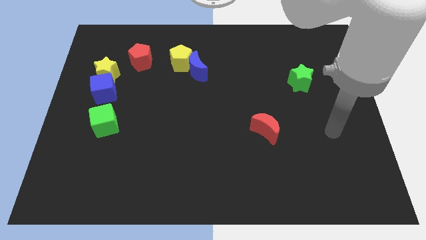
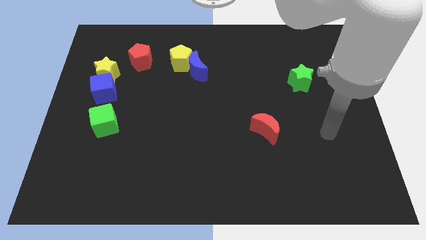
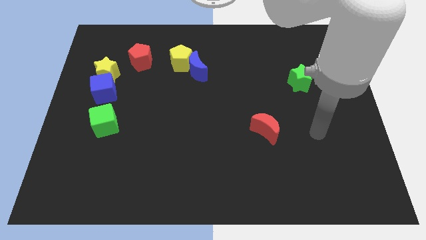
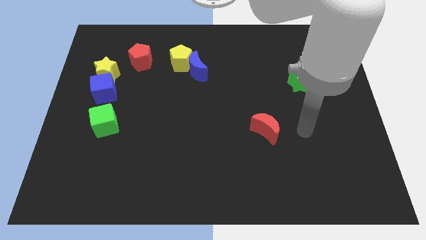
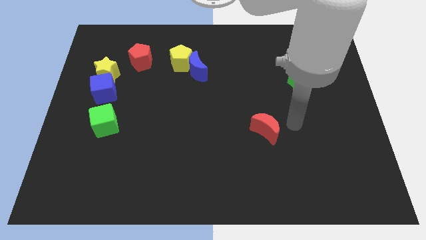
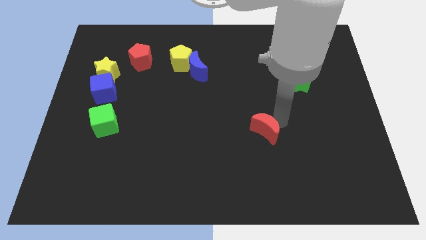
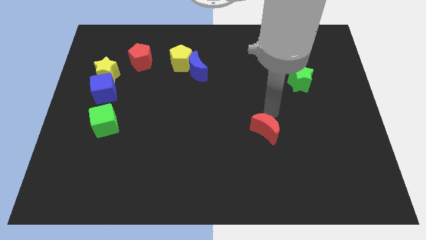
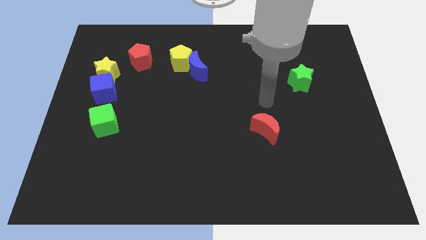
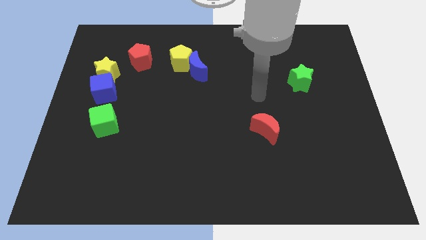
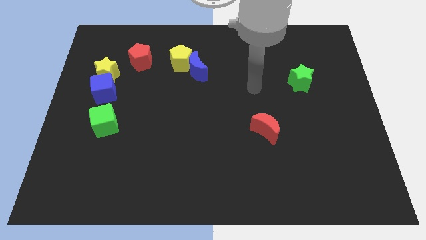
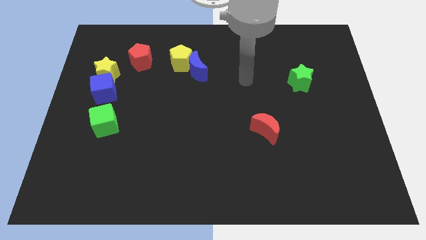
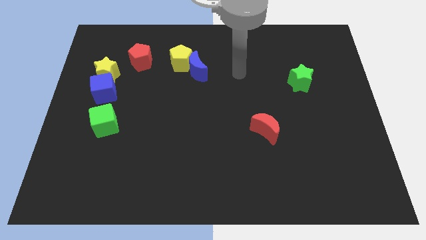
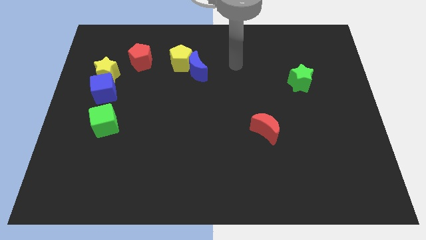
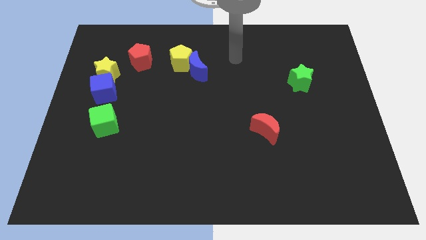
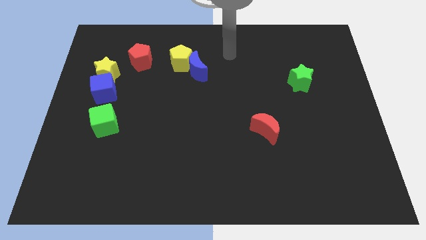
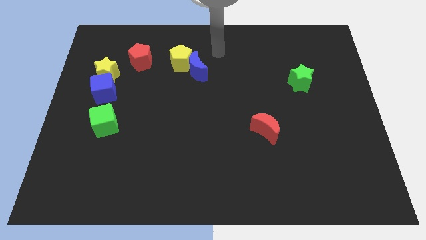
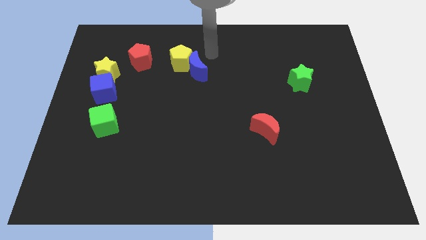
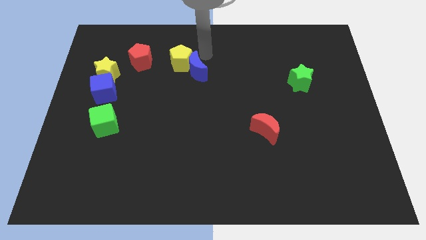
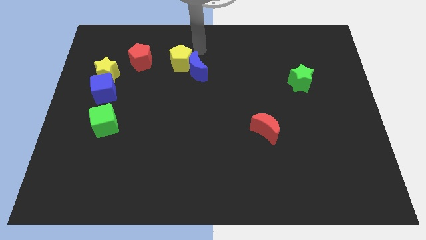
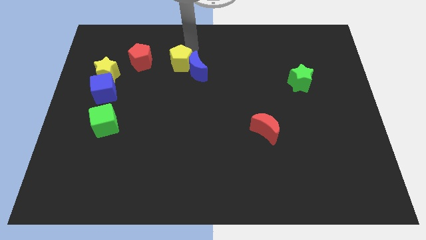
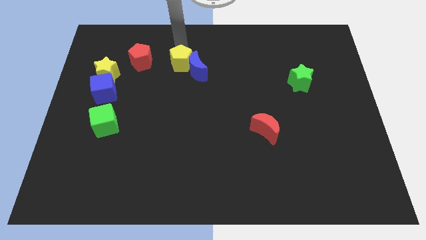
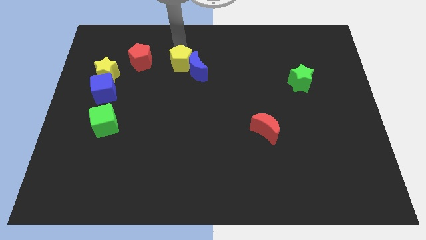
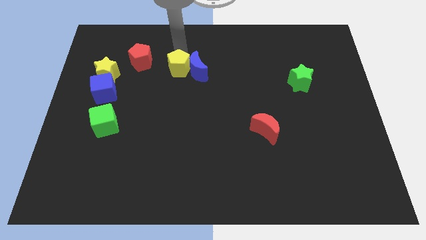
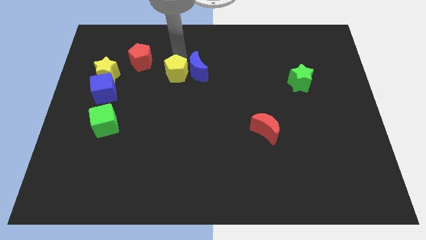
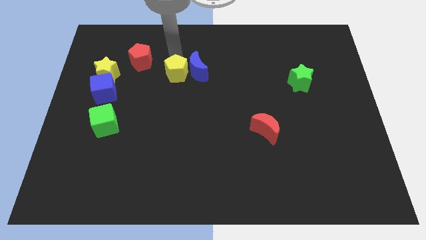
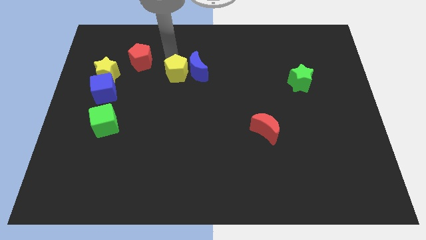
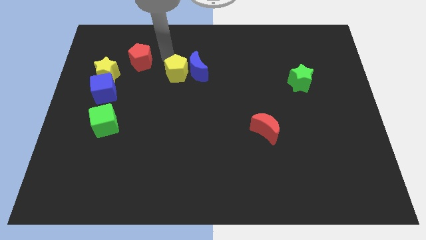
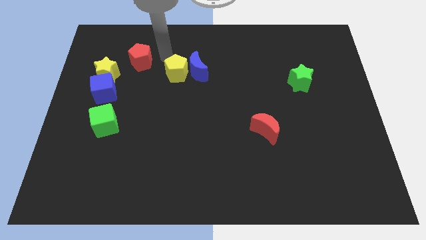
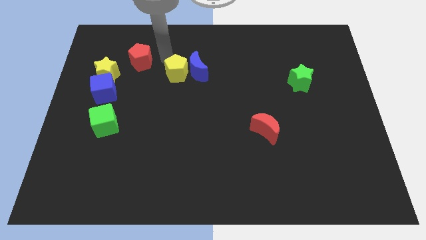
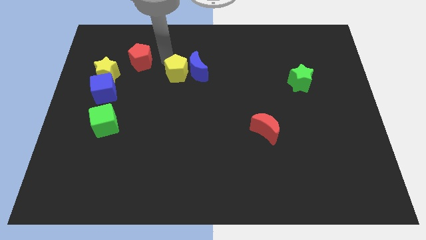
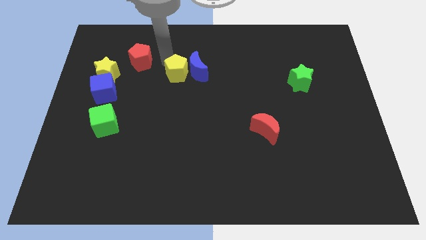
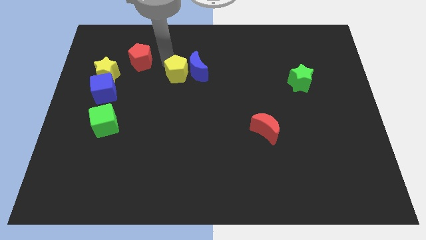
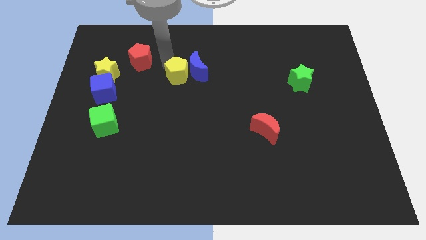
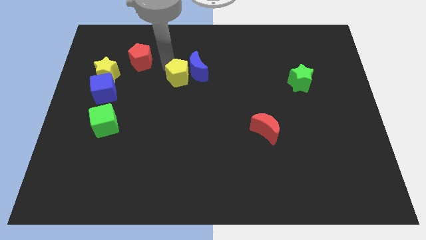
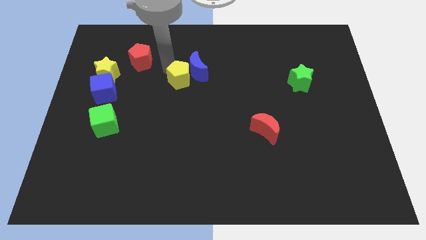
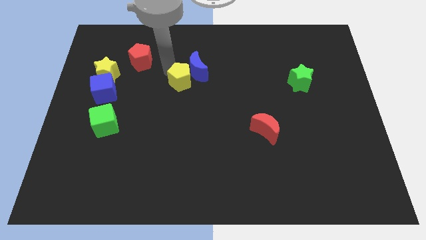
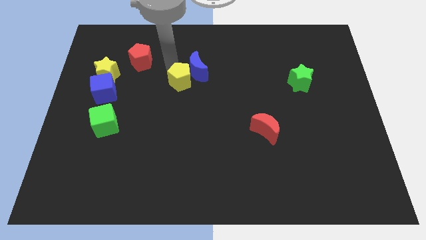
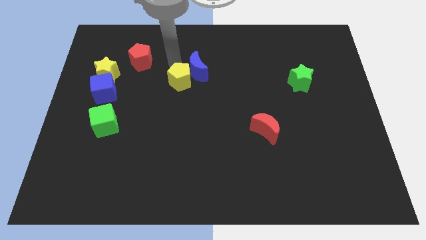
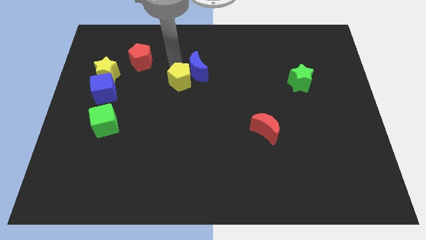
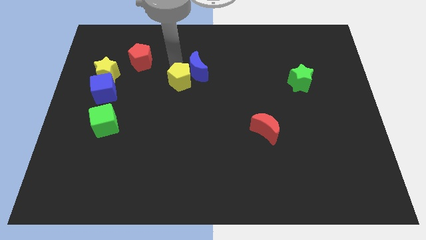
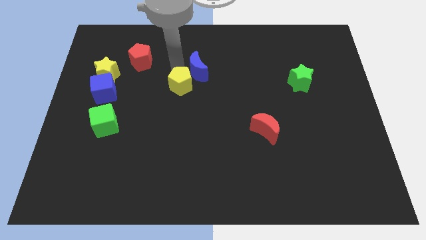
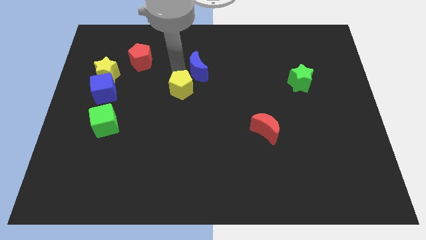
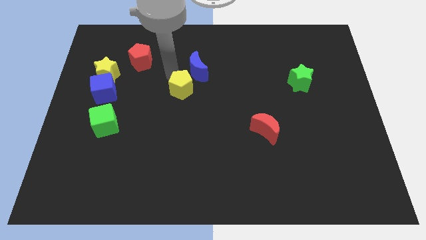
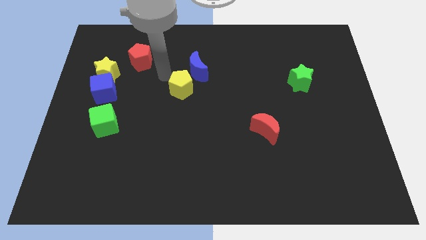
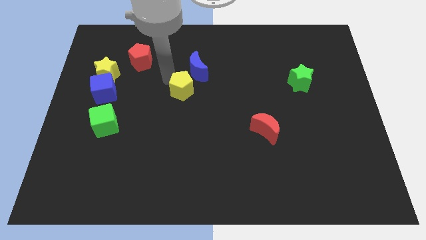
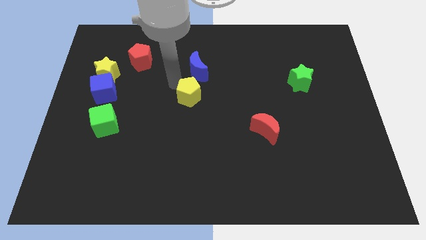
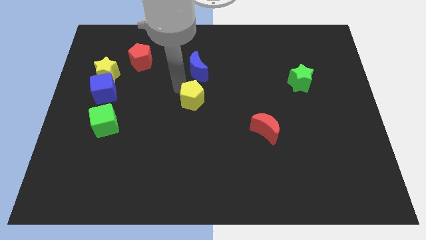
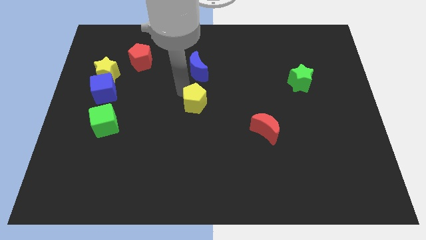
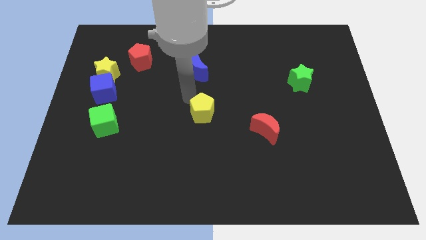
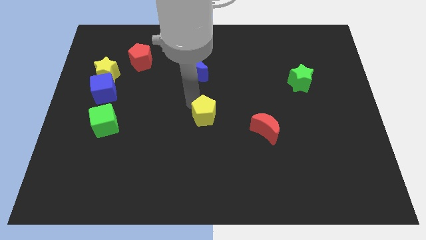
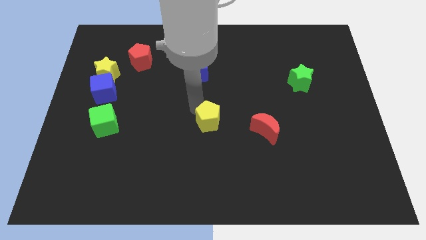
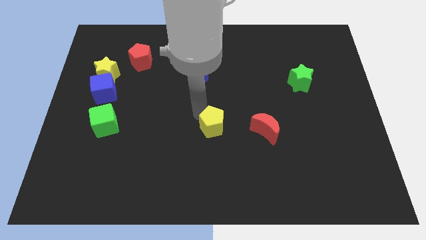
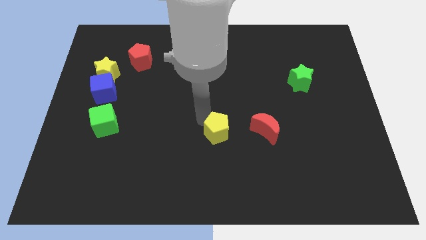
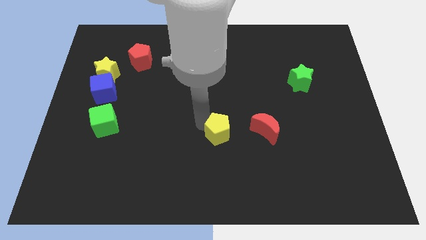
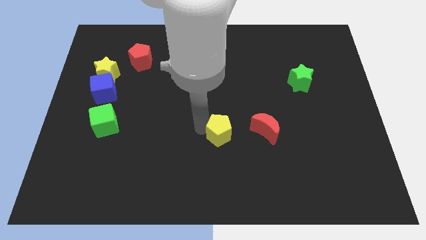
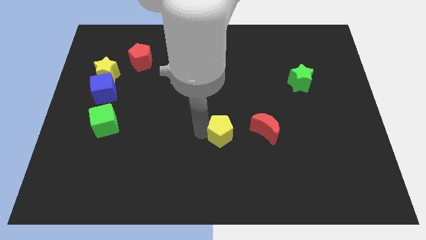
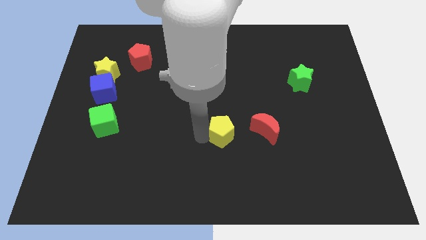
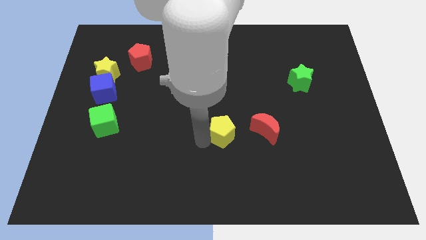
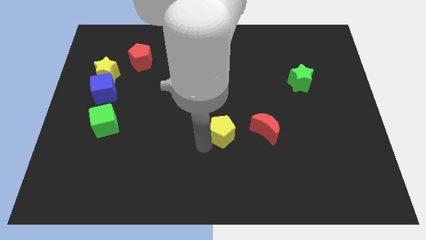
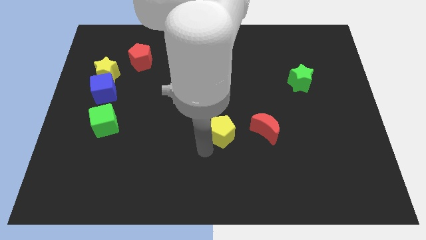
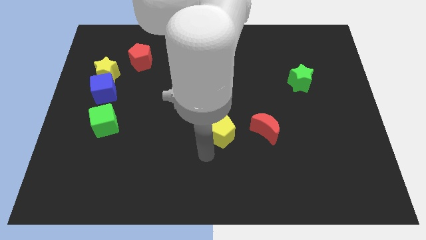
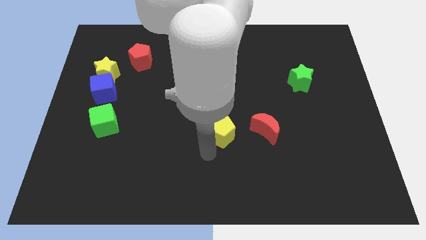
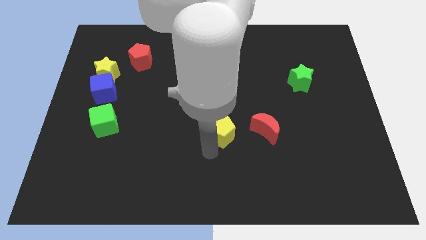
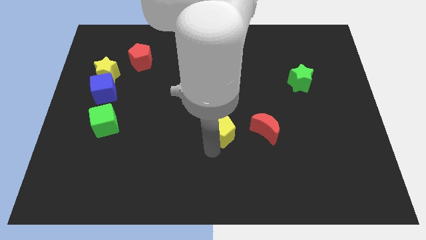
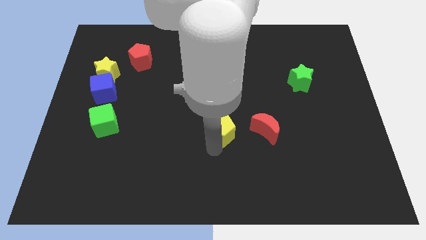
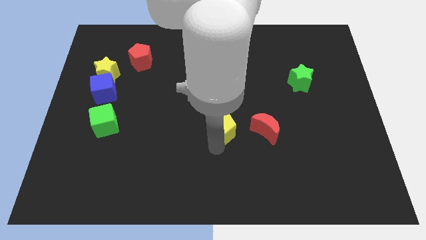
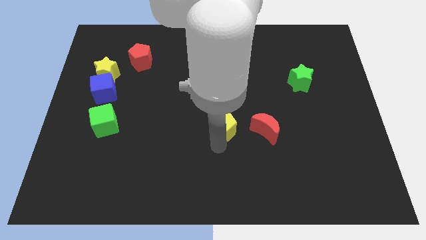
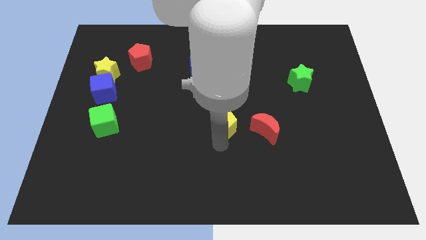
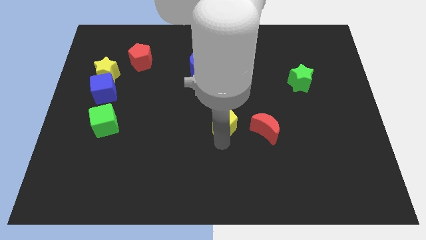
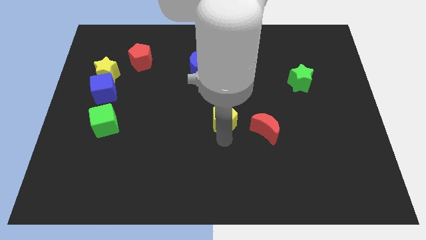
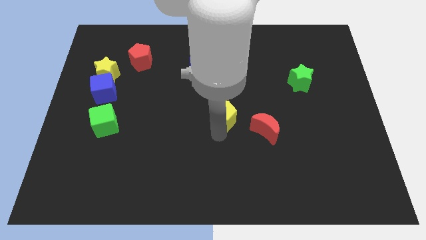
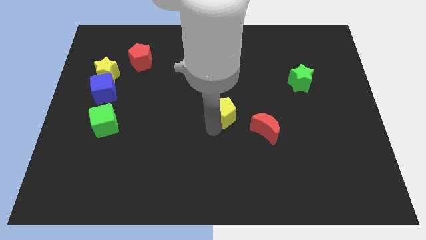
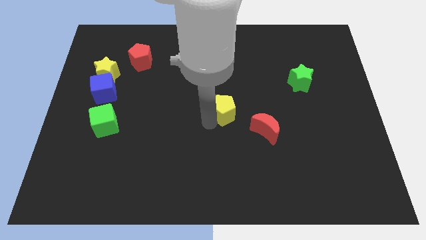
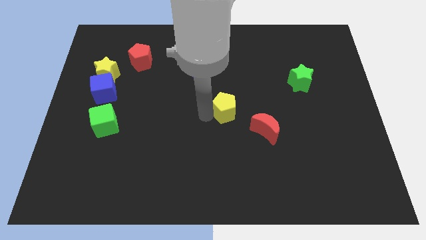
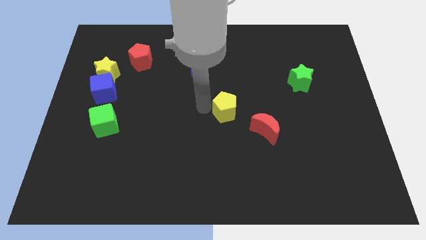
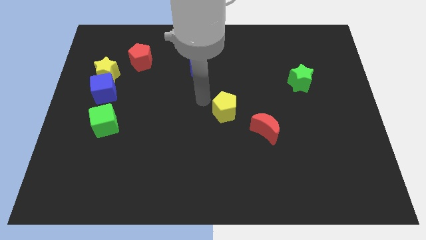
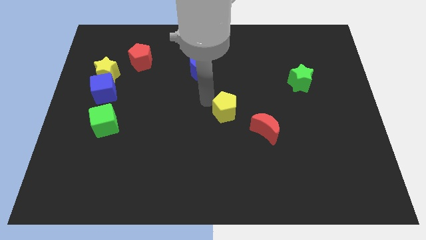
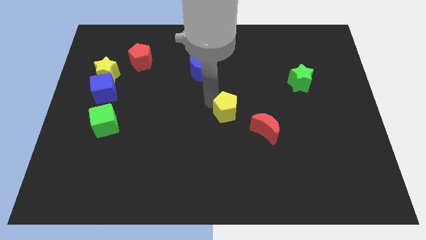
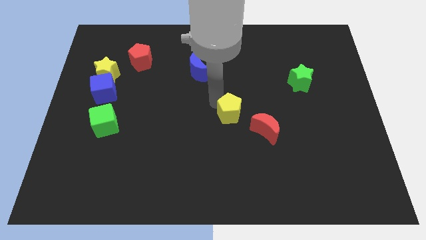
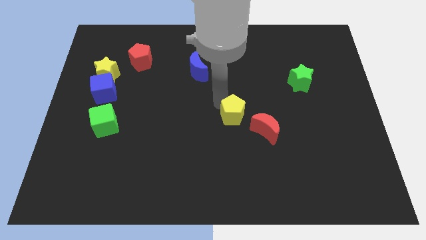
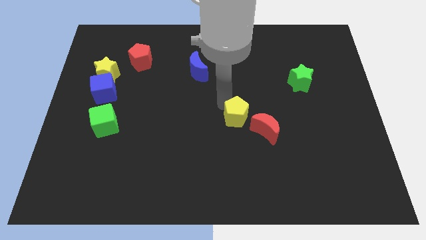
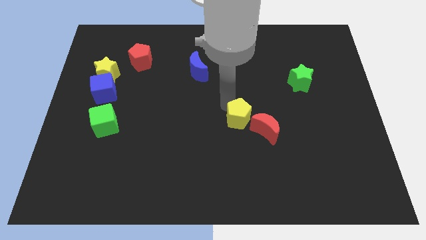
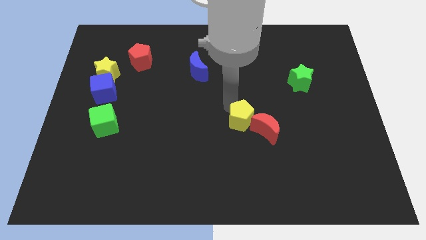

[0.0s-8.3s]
push the yellow pentagon to the red moon
